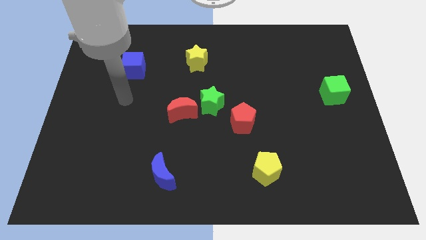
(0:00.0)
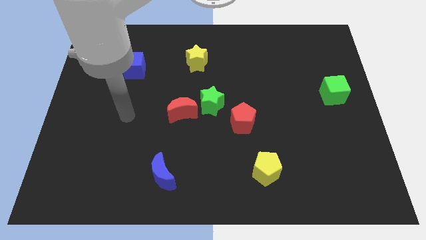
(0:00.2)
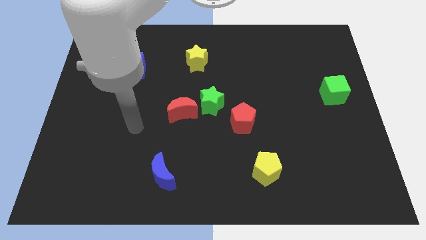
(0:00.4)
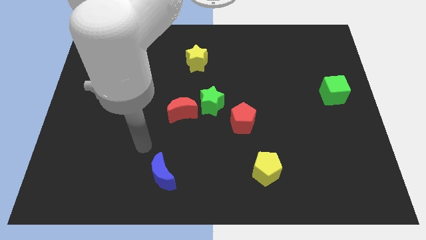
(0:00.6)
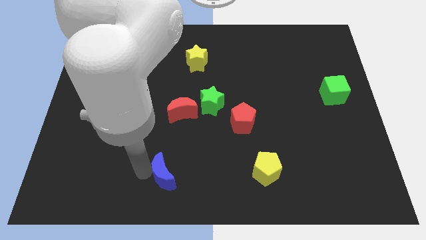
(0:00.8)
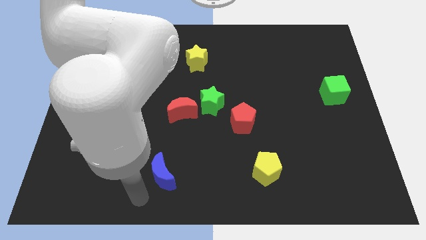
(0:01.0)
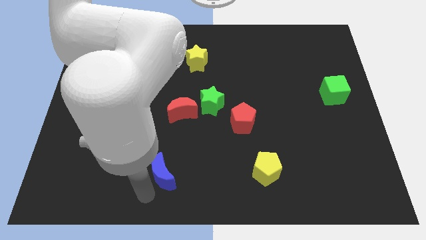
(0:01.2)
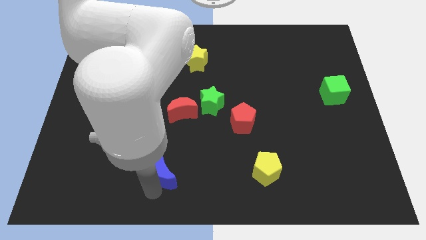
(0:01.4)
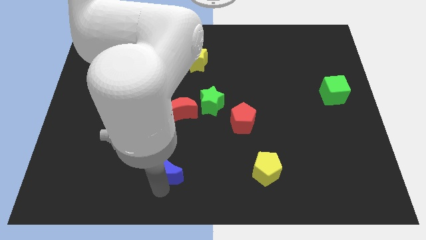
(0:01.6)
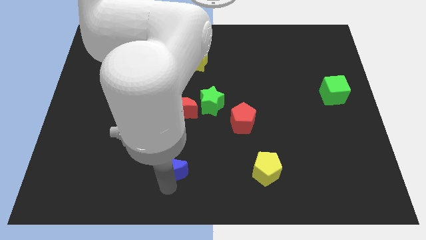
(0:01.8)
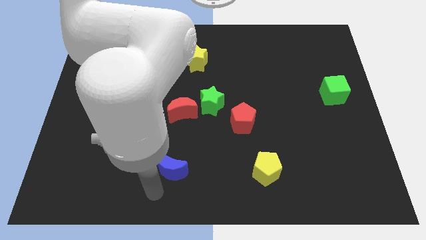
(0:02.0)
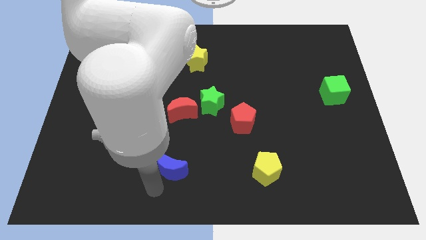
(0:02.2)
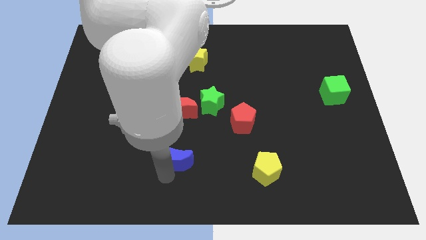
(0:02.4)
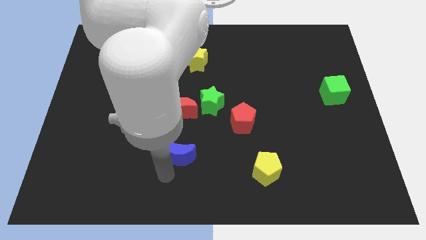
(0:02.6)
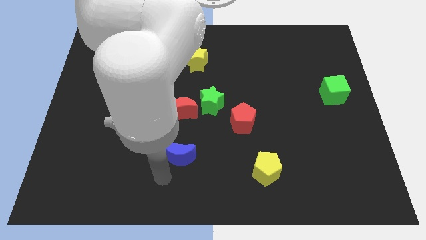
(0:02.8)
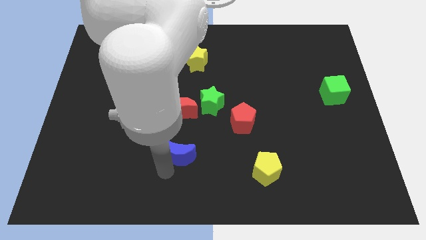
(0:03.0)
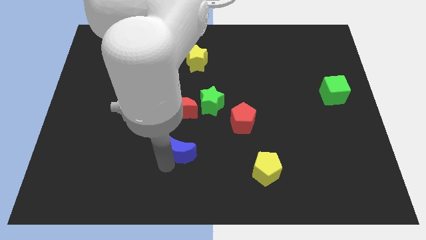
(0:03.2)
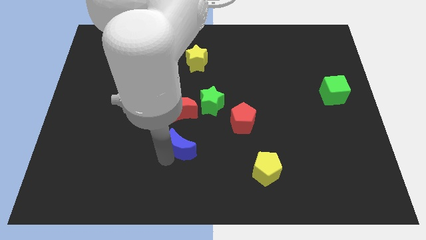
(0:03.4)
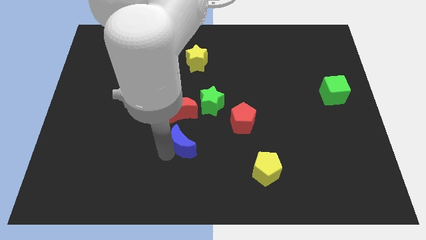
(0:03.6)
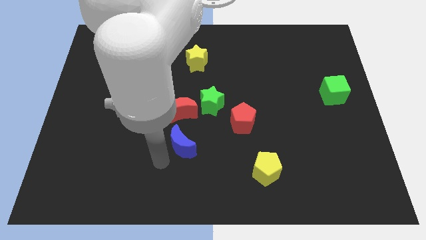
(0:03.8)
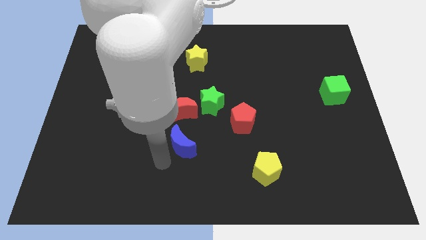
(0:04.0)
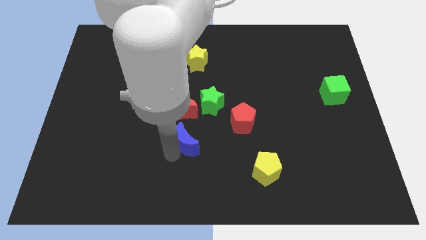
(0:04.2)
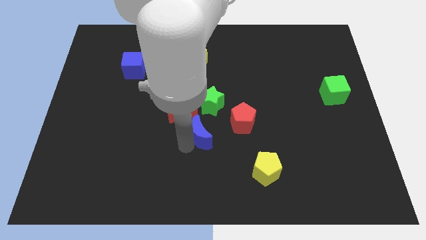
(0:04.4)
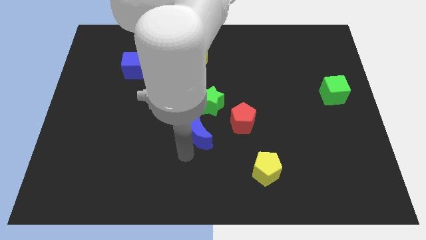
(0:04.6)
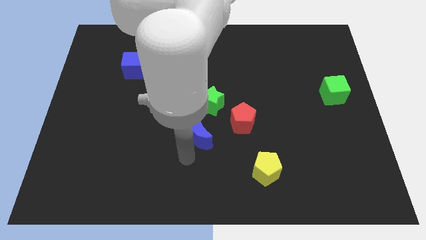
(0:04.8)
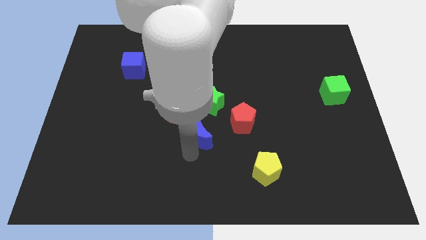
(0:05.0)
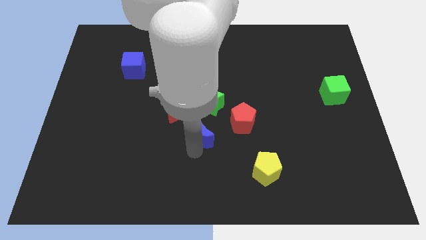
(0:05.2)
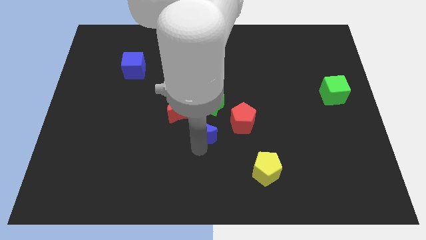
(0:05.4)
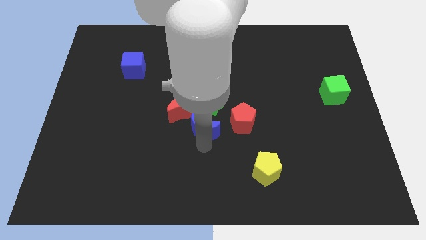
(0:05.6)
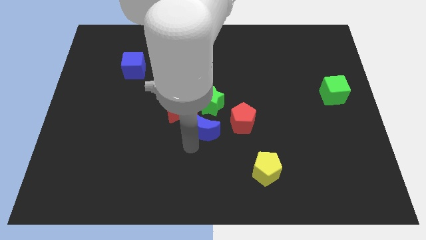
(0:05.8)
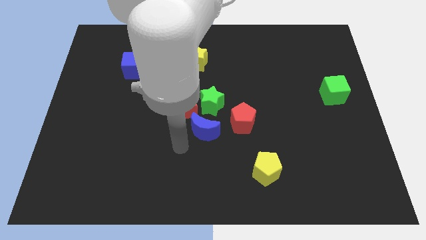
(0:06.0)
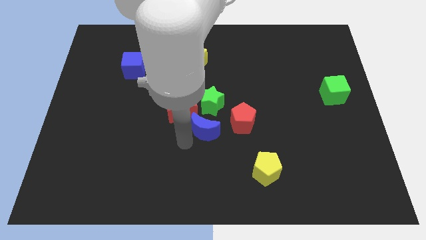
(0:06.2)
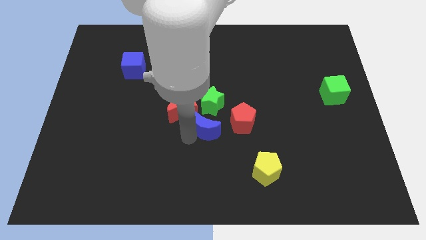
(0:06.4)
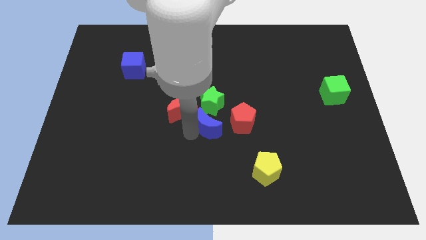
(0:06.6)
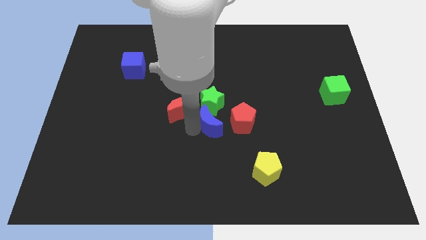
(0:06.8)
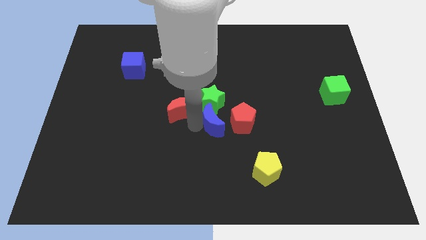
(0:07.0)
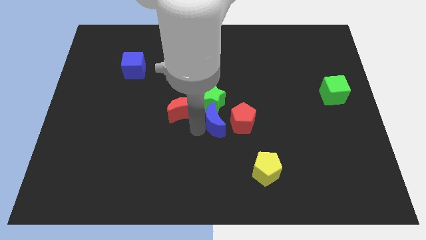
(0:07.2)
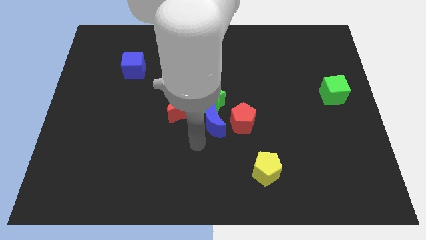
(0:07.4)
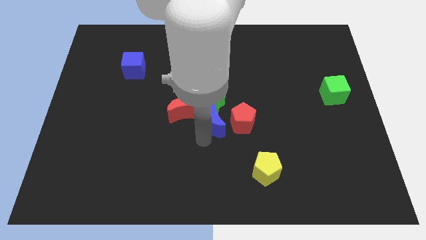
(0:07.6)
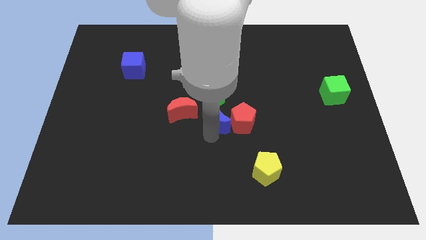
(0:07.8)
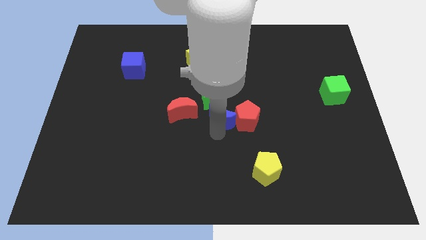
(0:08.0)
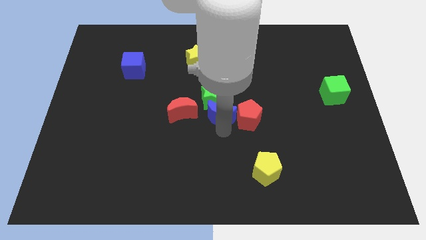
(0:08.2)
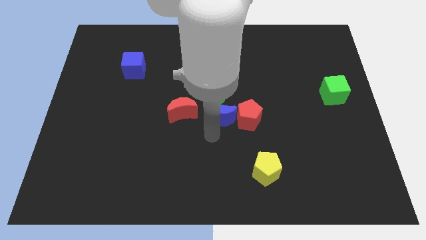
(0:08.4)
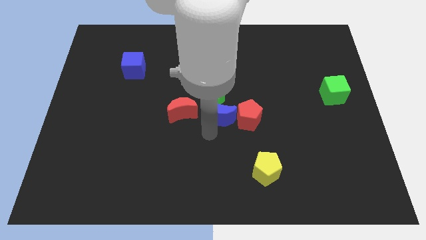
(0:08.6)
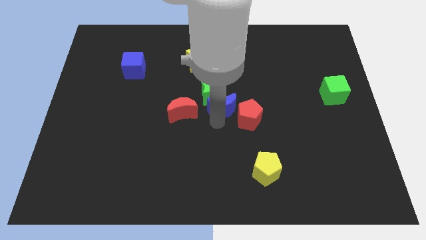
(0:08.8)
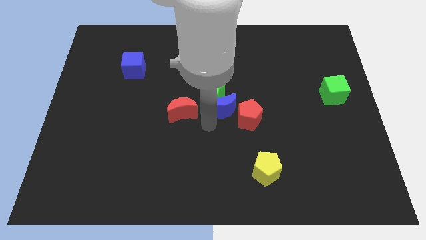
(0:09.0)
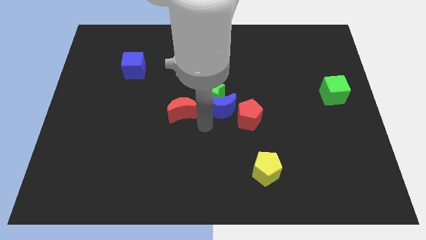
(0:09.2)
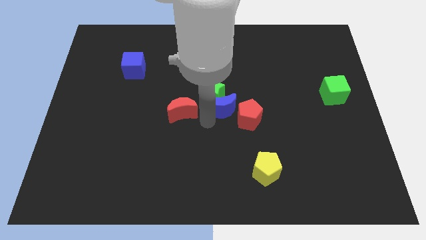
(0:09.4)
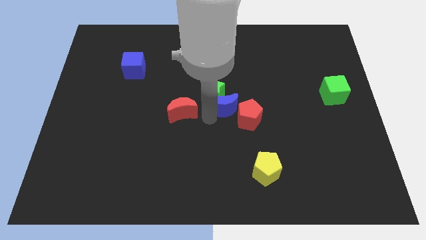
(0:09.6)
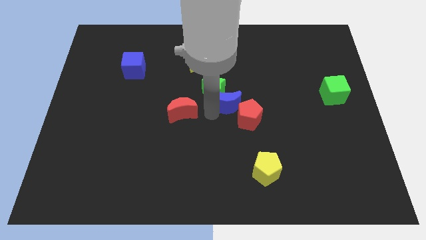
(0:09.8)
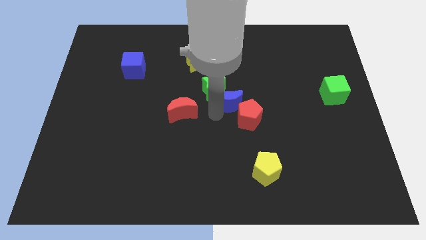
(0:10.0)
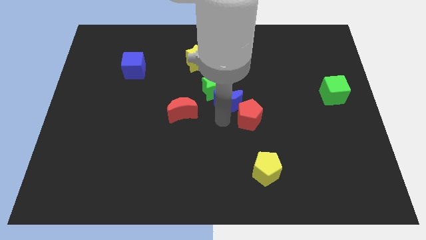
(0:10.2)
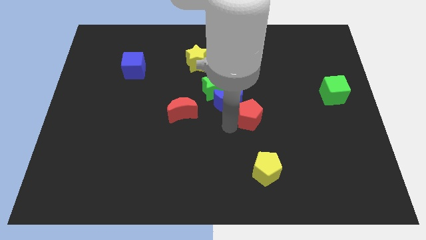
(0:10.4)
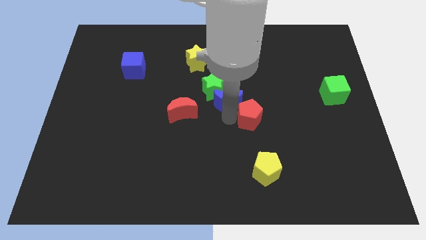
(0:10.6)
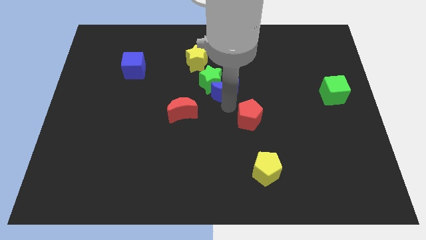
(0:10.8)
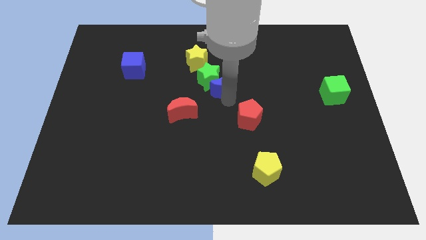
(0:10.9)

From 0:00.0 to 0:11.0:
slide the blue moon diagonally down and to the right of the yellow star

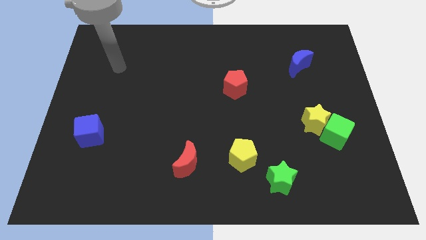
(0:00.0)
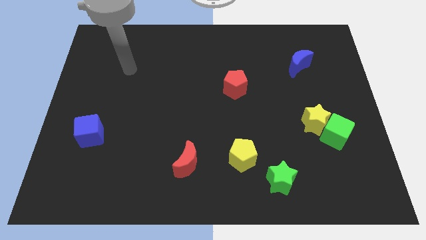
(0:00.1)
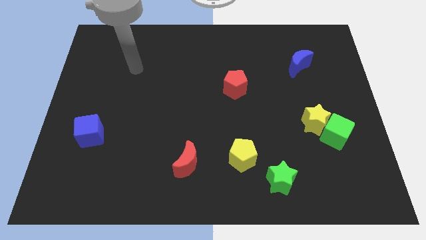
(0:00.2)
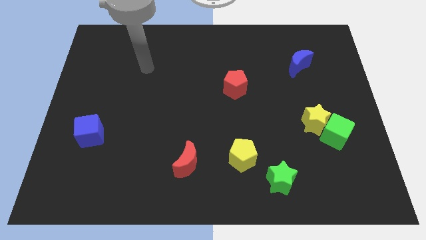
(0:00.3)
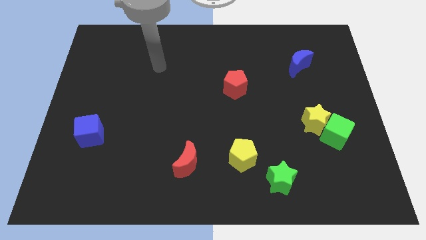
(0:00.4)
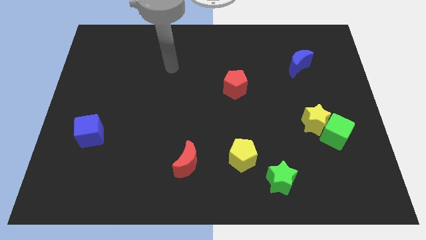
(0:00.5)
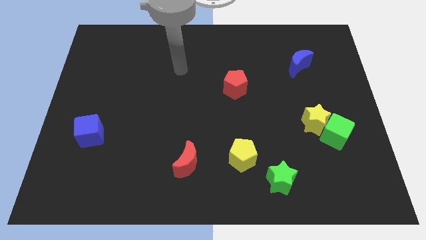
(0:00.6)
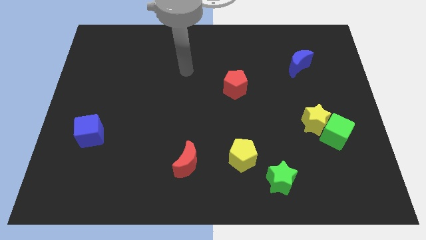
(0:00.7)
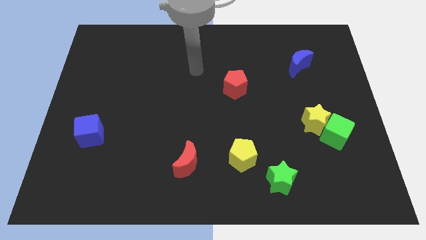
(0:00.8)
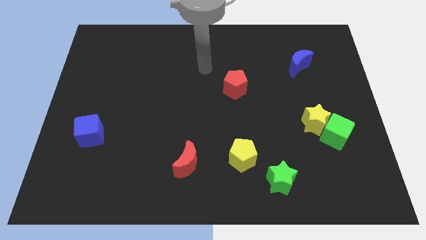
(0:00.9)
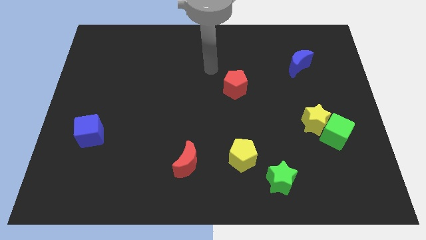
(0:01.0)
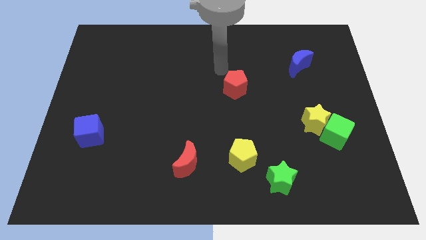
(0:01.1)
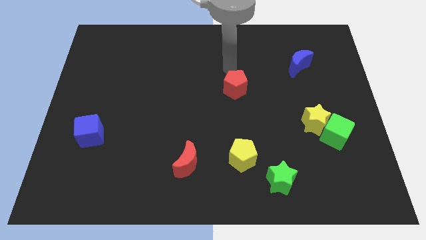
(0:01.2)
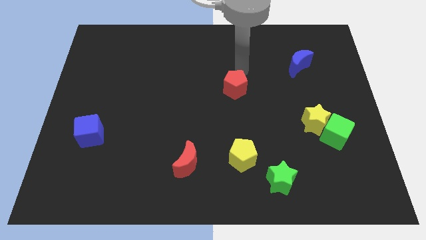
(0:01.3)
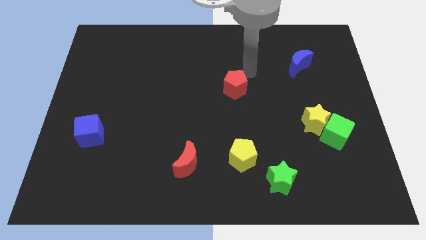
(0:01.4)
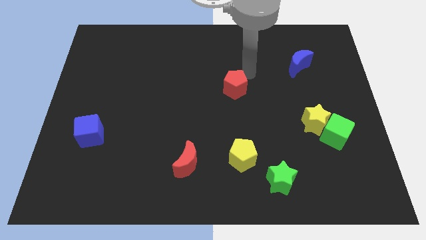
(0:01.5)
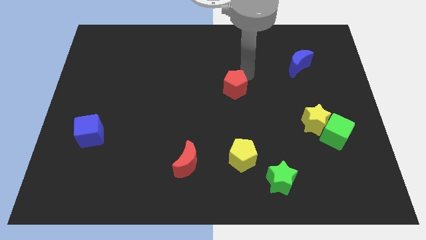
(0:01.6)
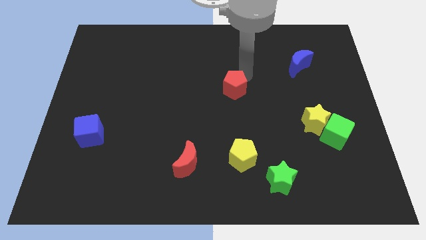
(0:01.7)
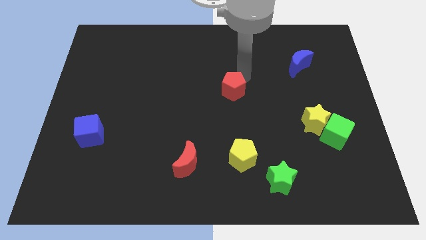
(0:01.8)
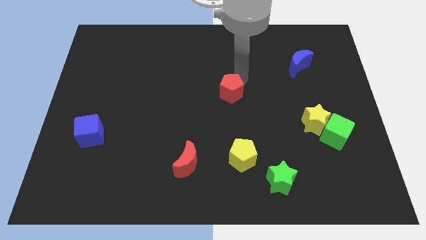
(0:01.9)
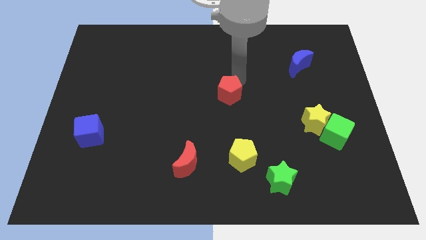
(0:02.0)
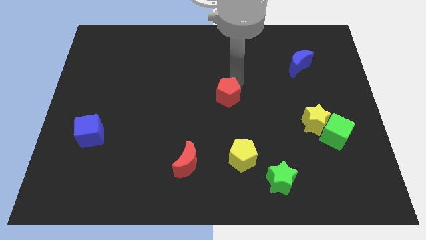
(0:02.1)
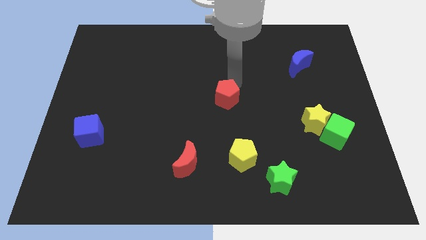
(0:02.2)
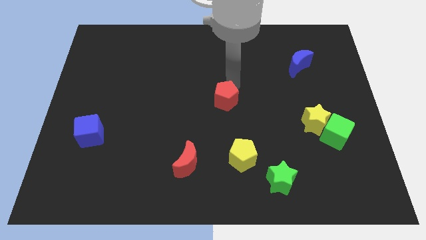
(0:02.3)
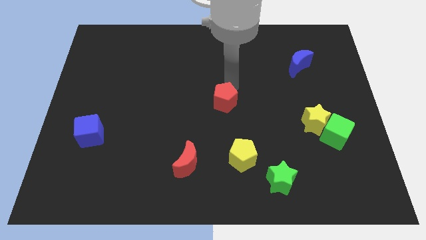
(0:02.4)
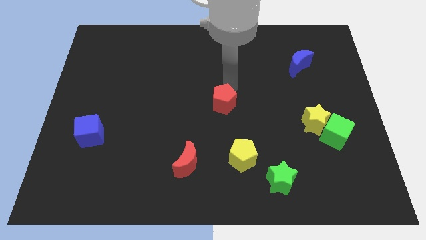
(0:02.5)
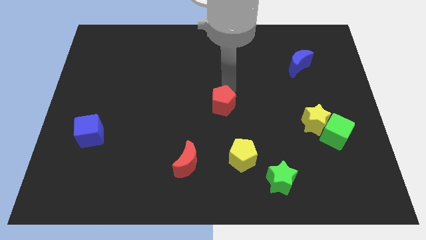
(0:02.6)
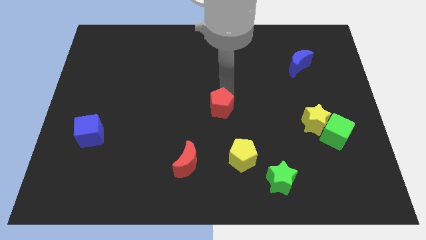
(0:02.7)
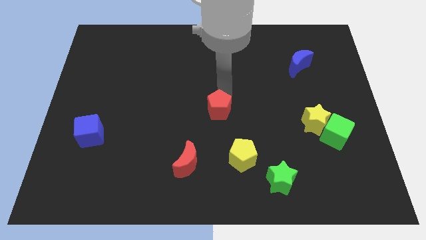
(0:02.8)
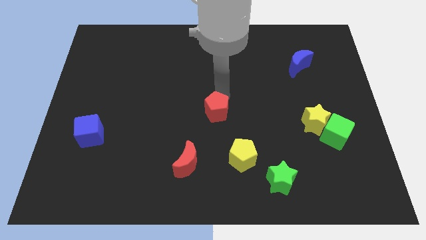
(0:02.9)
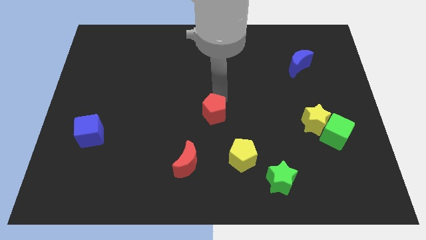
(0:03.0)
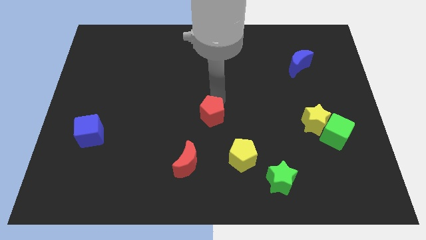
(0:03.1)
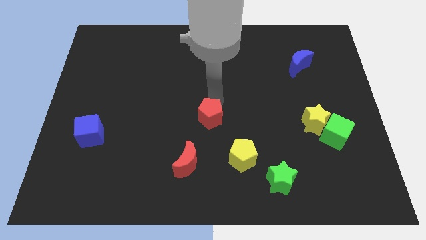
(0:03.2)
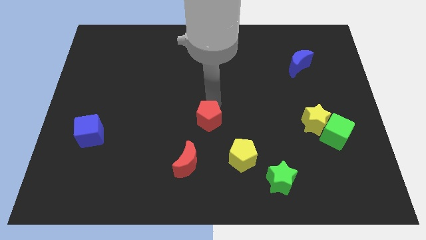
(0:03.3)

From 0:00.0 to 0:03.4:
move the red pentagon to the top left of the yellow pentagon
